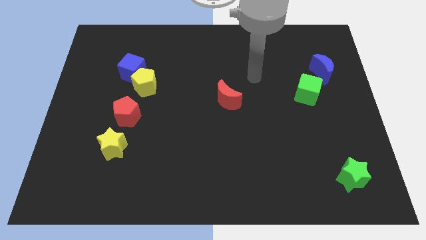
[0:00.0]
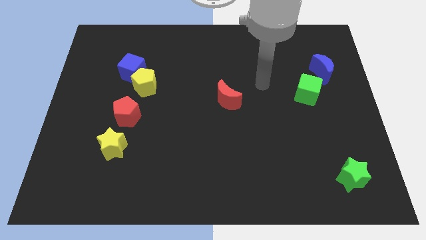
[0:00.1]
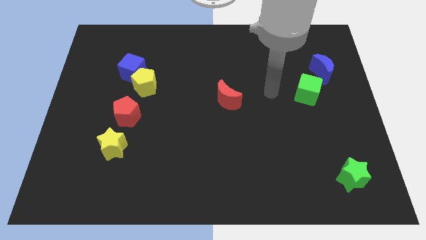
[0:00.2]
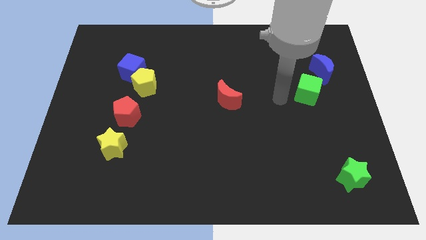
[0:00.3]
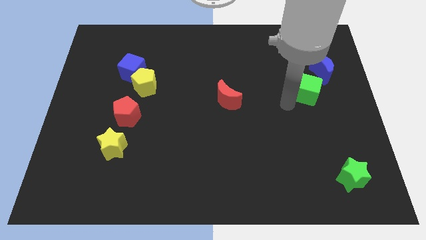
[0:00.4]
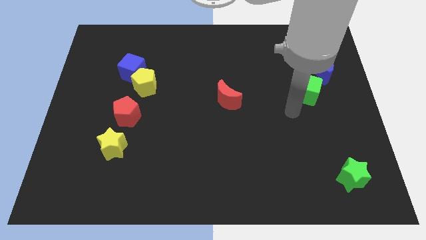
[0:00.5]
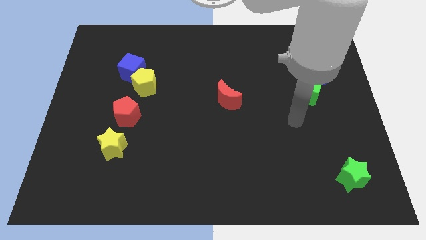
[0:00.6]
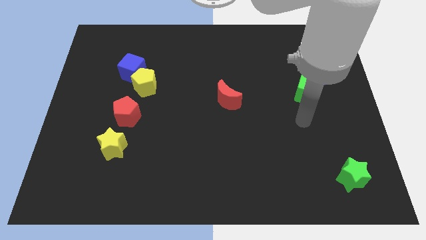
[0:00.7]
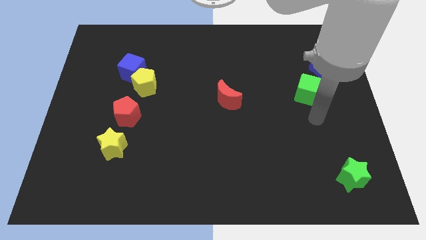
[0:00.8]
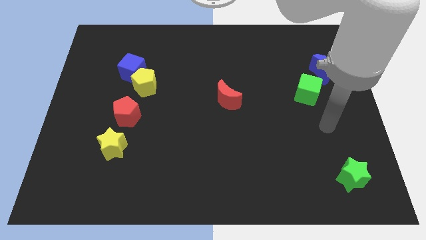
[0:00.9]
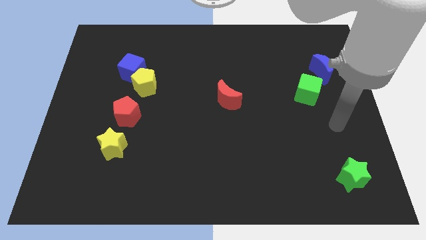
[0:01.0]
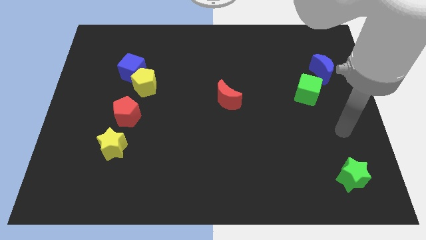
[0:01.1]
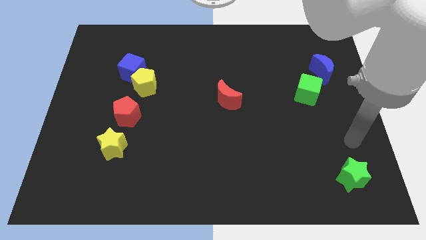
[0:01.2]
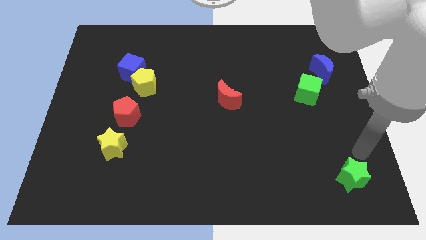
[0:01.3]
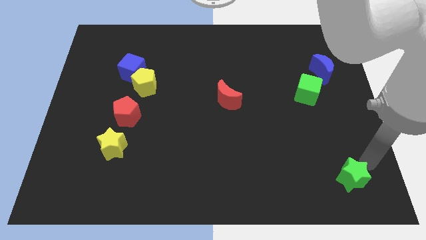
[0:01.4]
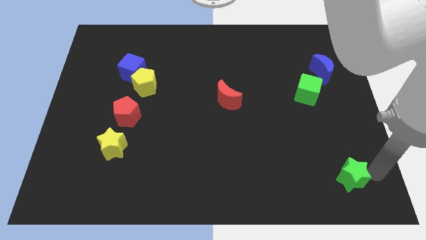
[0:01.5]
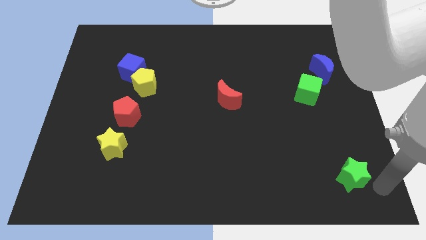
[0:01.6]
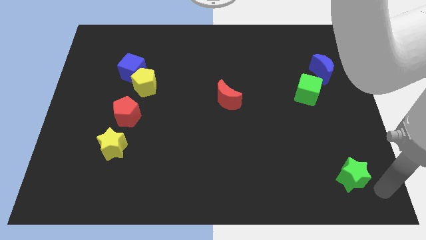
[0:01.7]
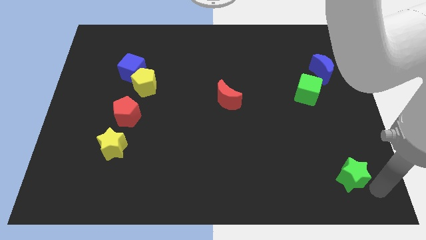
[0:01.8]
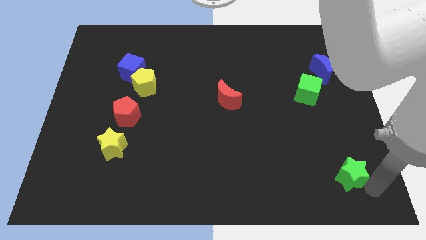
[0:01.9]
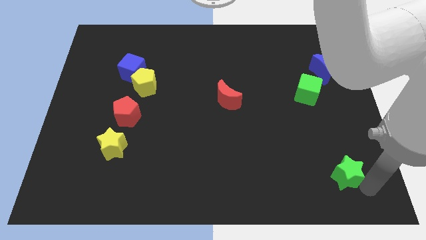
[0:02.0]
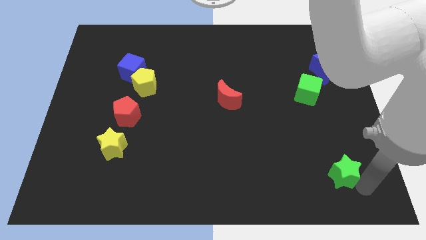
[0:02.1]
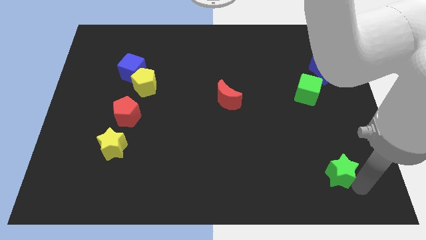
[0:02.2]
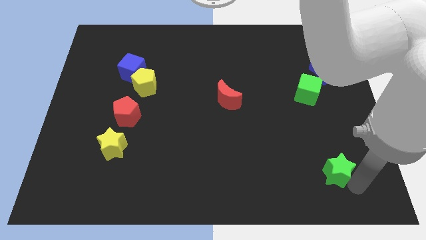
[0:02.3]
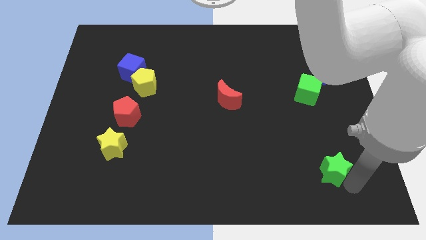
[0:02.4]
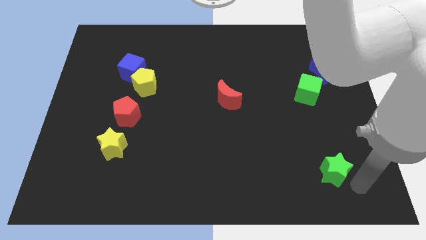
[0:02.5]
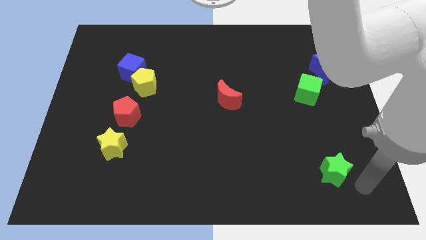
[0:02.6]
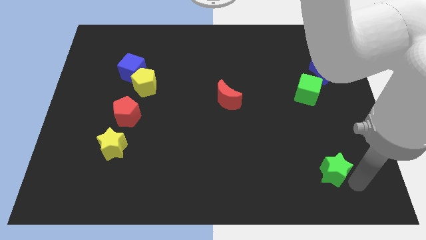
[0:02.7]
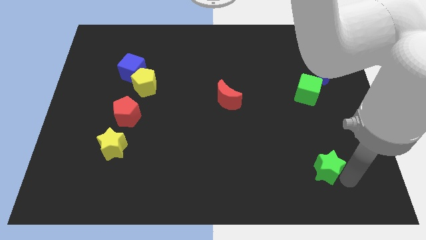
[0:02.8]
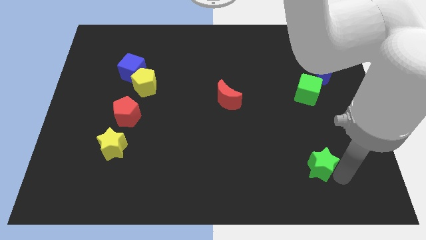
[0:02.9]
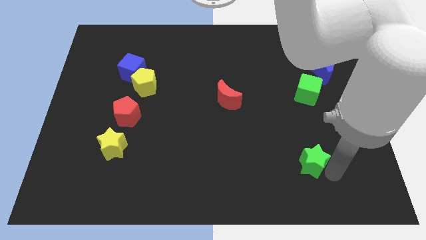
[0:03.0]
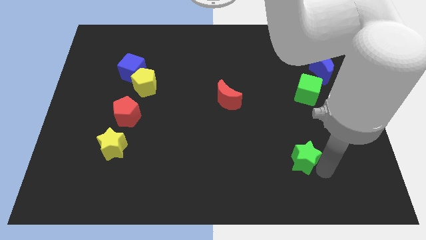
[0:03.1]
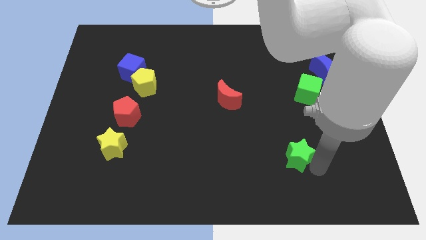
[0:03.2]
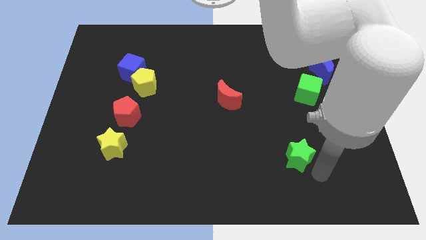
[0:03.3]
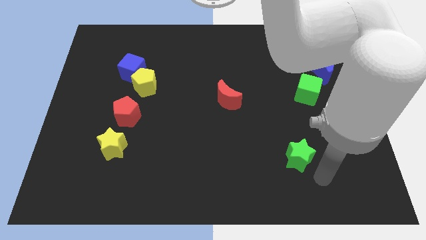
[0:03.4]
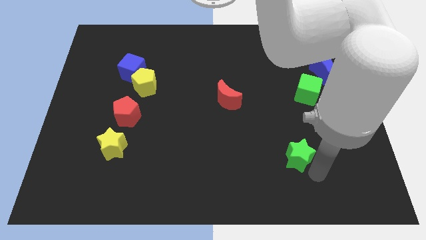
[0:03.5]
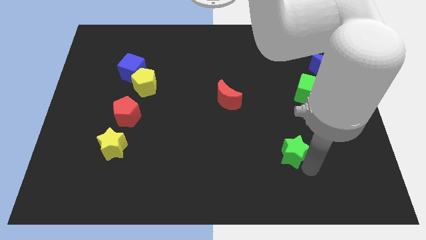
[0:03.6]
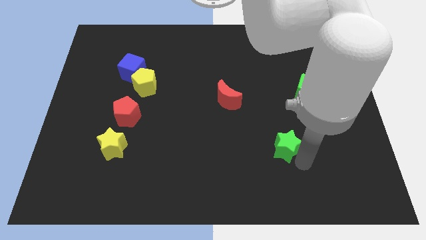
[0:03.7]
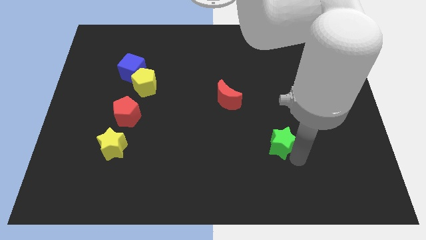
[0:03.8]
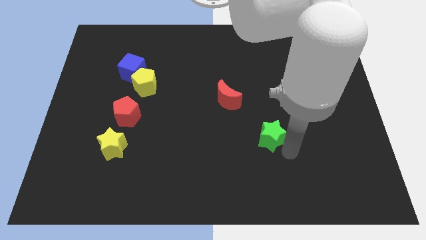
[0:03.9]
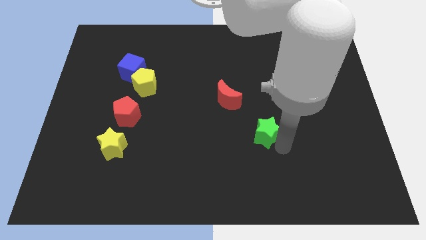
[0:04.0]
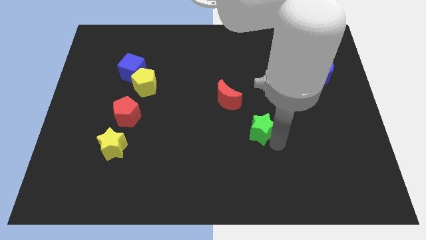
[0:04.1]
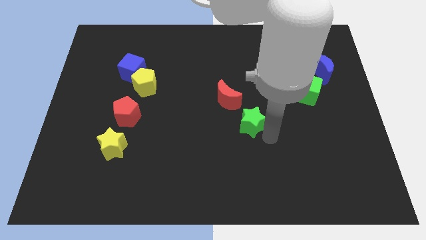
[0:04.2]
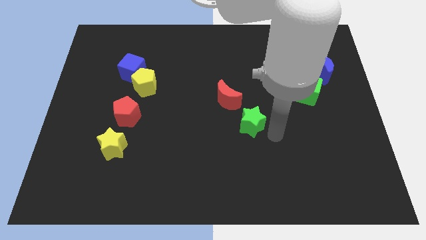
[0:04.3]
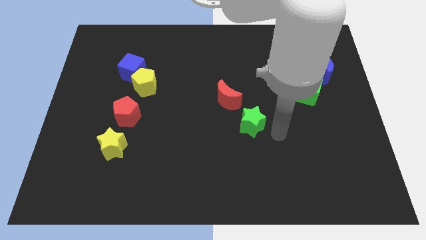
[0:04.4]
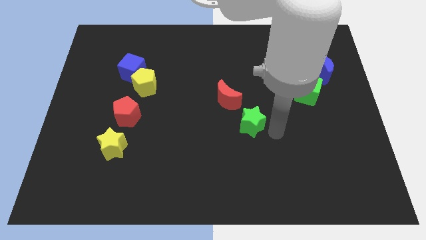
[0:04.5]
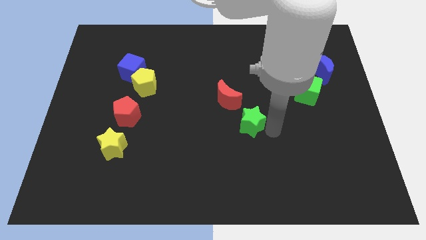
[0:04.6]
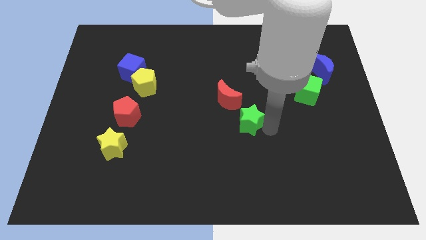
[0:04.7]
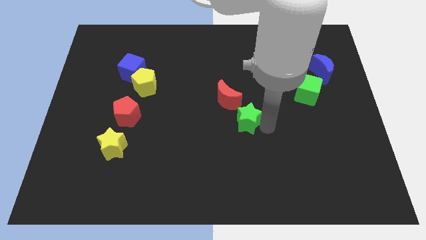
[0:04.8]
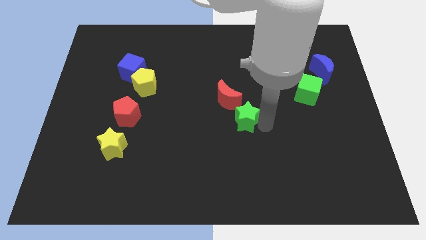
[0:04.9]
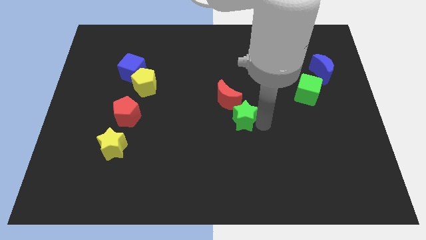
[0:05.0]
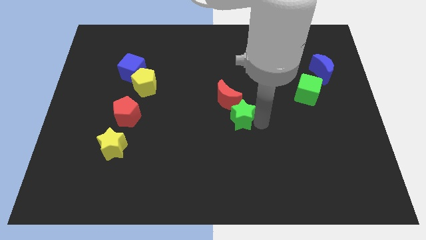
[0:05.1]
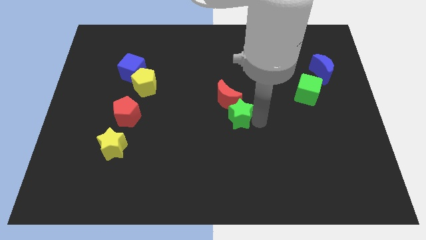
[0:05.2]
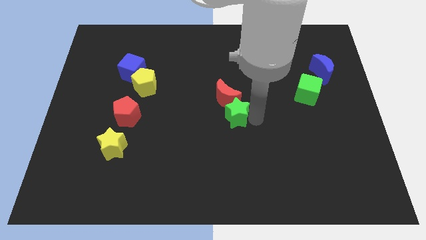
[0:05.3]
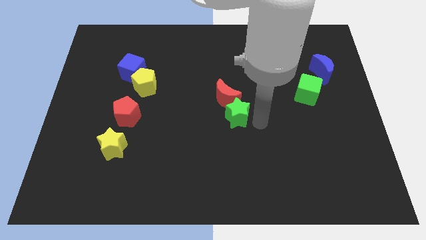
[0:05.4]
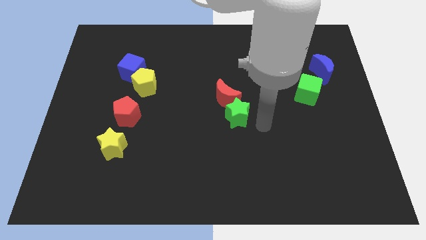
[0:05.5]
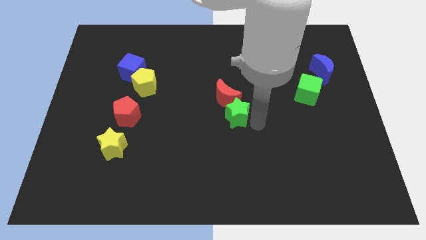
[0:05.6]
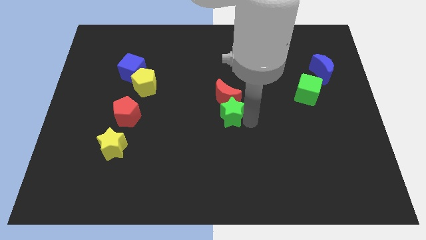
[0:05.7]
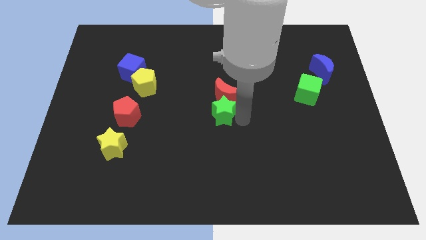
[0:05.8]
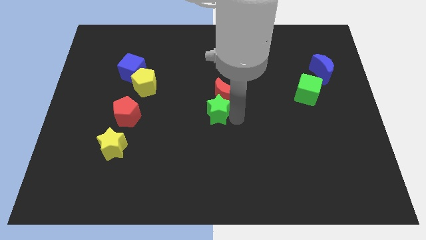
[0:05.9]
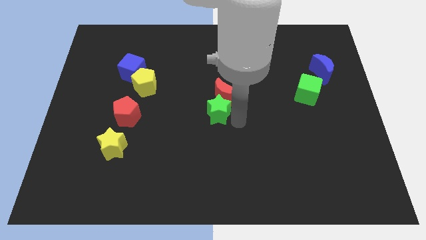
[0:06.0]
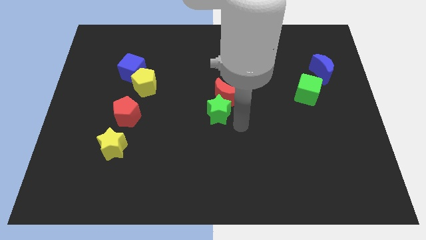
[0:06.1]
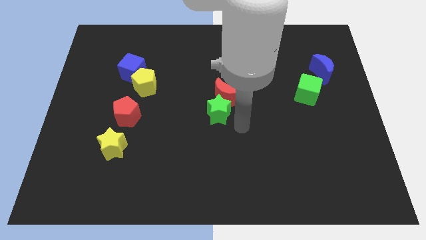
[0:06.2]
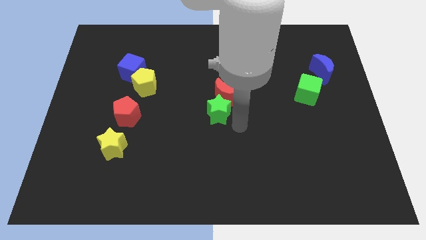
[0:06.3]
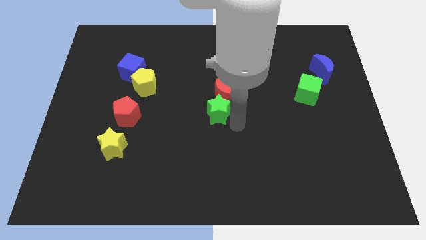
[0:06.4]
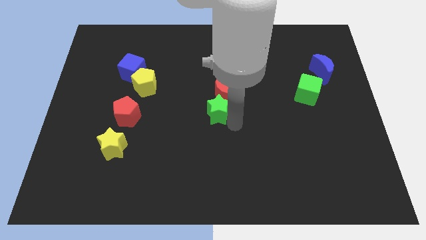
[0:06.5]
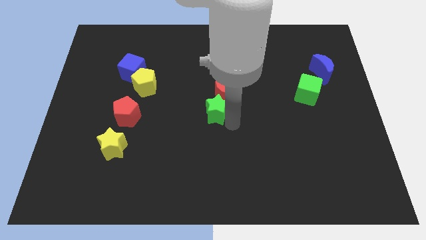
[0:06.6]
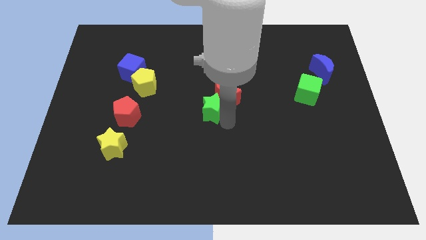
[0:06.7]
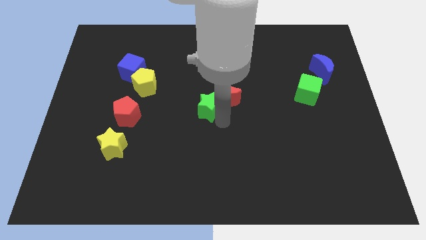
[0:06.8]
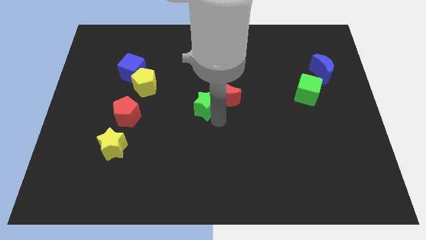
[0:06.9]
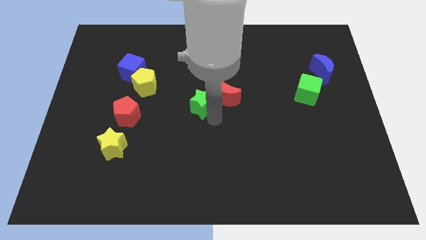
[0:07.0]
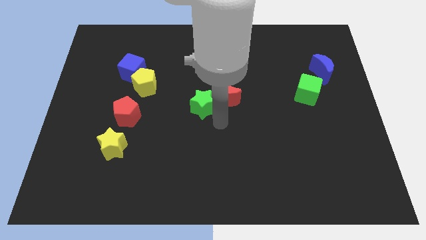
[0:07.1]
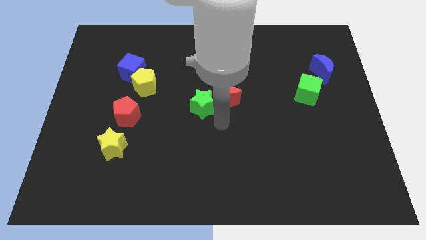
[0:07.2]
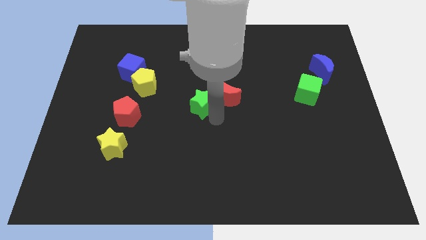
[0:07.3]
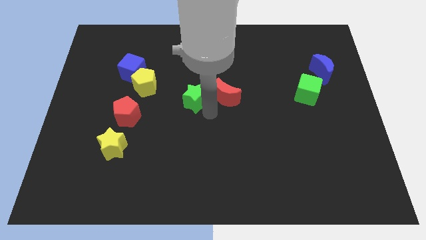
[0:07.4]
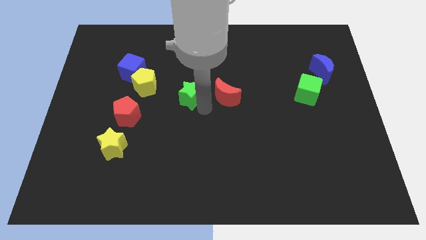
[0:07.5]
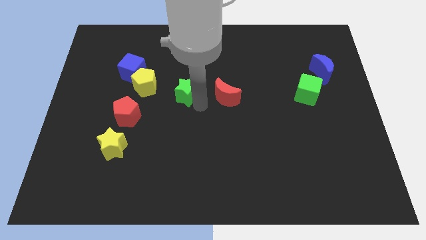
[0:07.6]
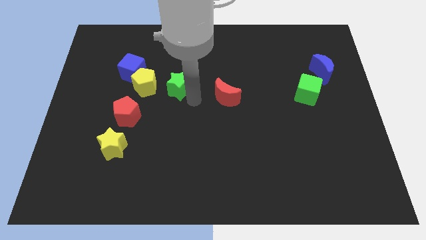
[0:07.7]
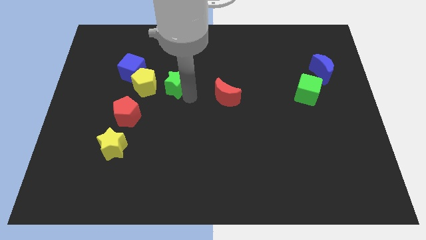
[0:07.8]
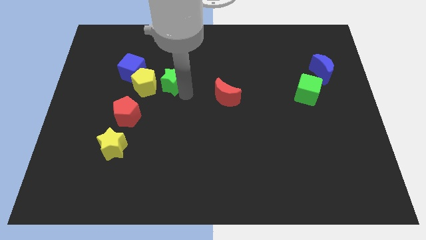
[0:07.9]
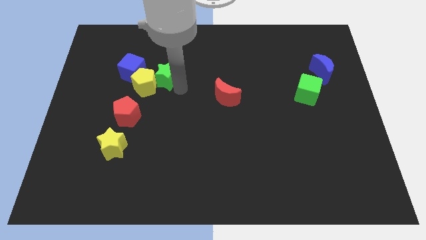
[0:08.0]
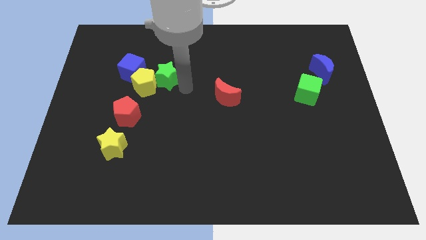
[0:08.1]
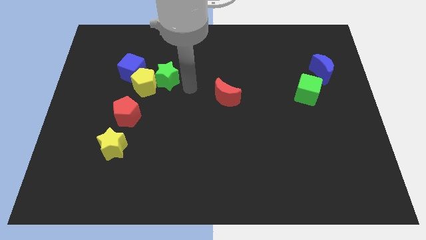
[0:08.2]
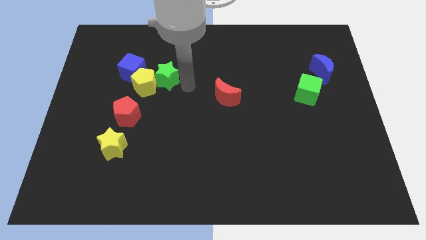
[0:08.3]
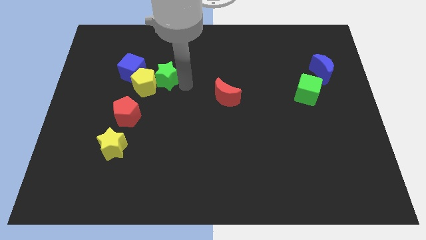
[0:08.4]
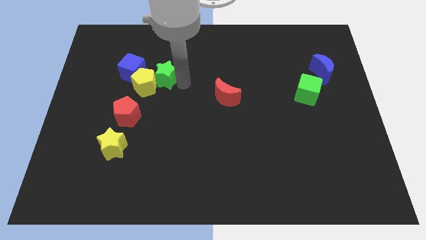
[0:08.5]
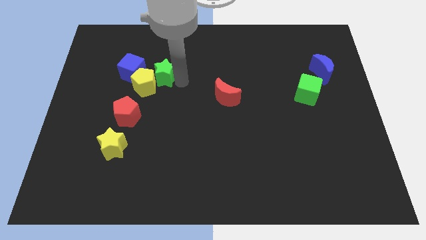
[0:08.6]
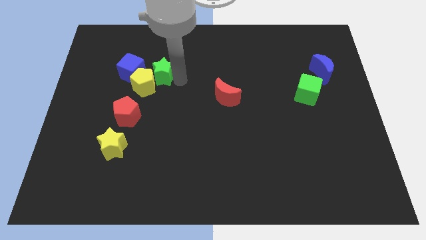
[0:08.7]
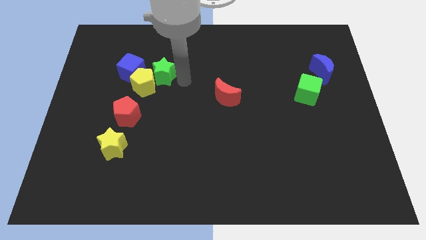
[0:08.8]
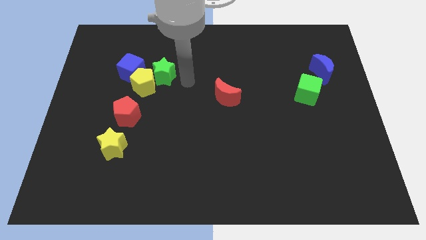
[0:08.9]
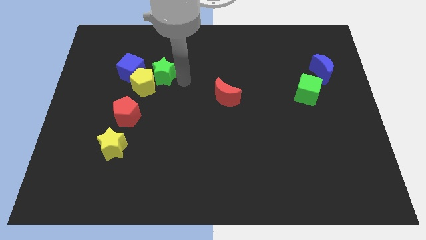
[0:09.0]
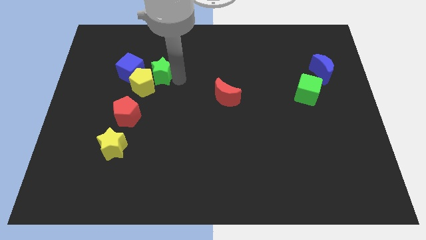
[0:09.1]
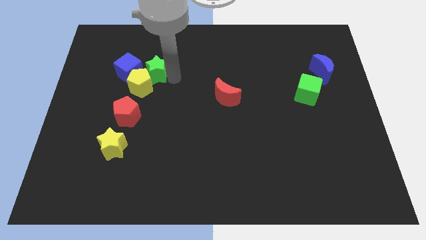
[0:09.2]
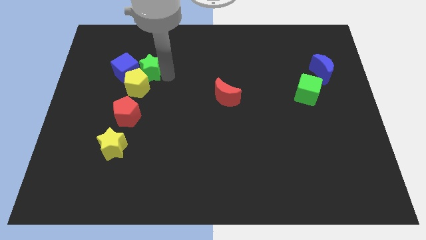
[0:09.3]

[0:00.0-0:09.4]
move the green star to the blue cube
